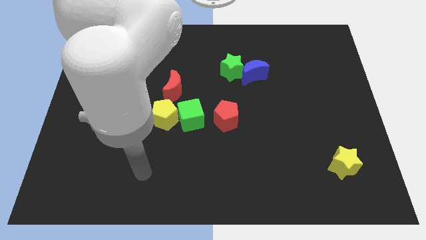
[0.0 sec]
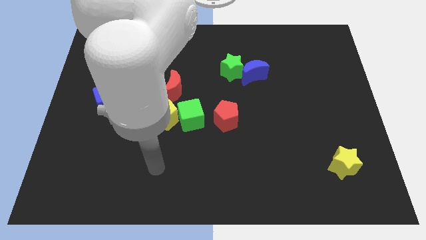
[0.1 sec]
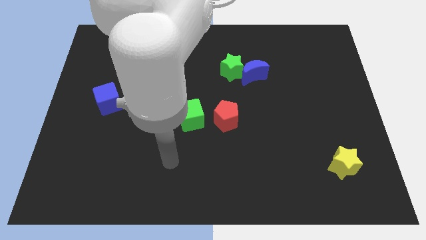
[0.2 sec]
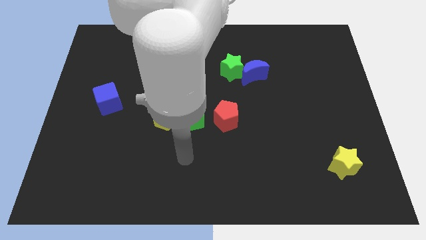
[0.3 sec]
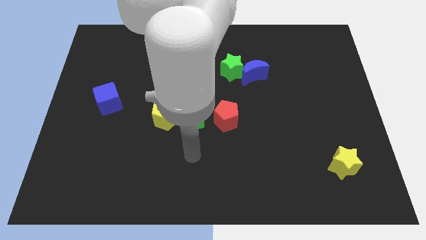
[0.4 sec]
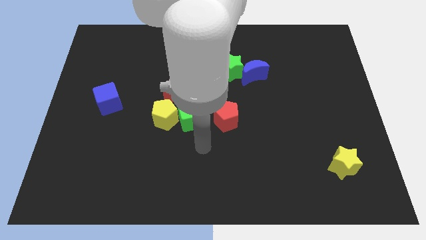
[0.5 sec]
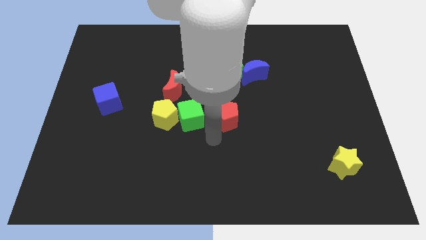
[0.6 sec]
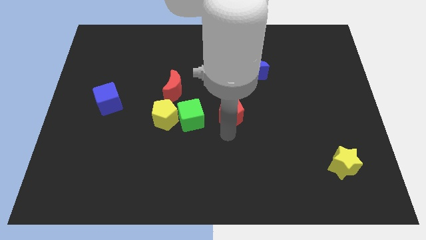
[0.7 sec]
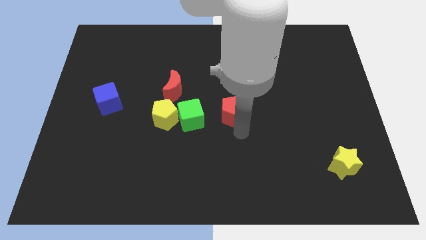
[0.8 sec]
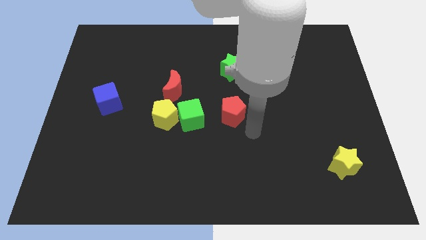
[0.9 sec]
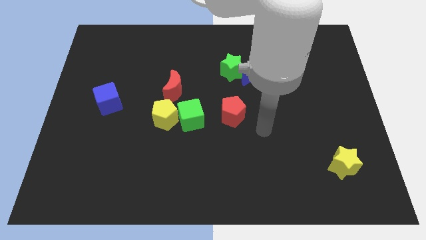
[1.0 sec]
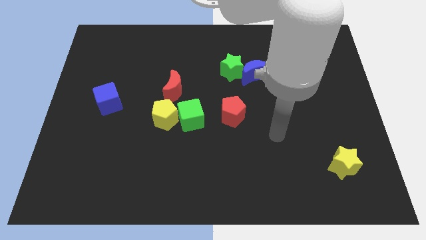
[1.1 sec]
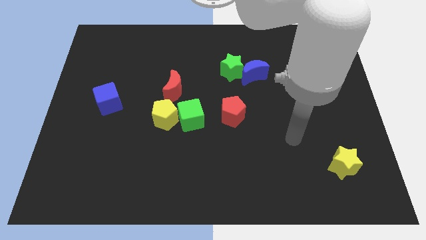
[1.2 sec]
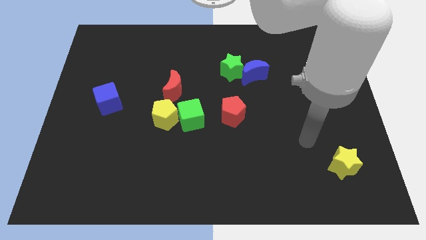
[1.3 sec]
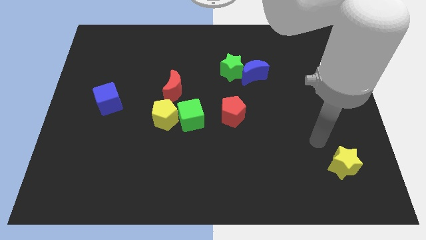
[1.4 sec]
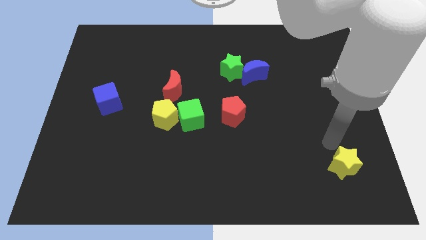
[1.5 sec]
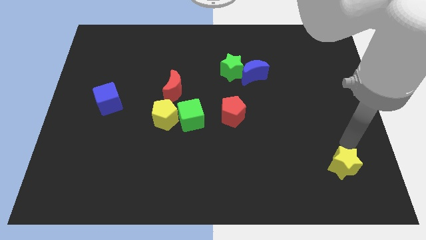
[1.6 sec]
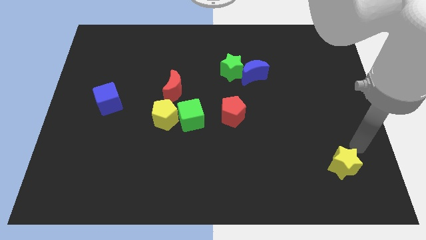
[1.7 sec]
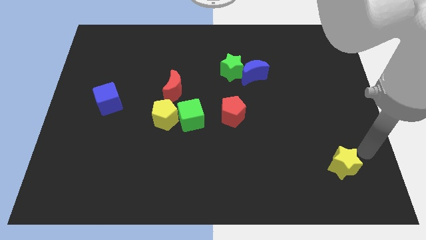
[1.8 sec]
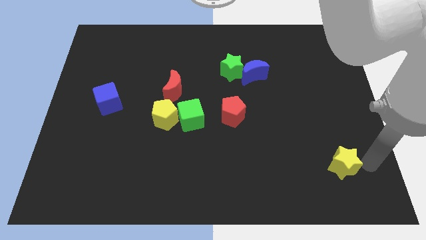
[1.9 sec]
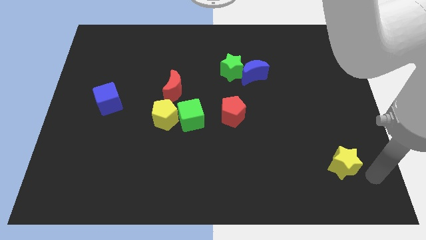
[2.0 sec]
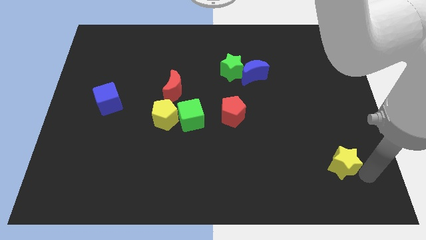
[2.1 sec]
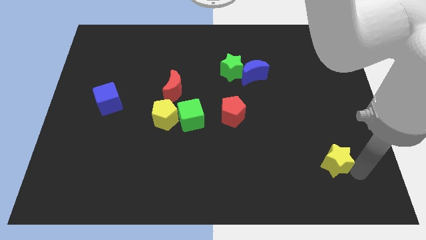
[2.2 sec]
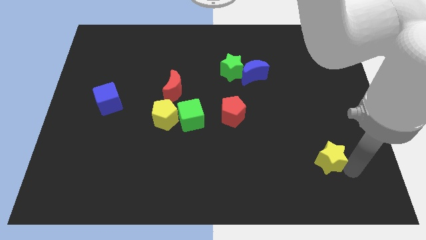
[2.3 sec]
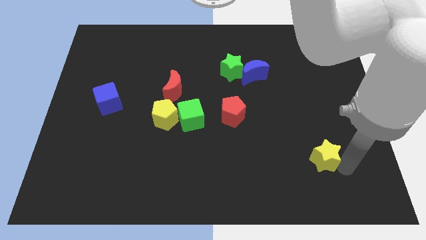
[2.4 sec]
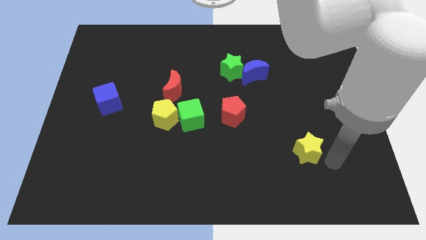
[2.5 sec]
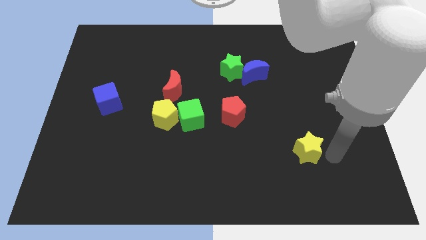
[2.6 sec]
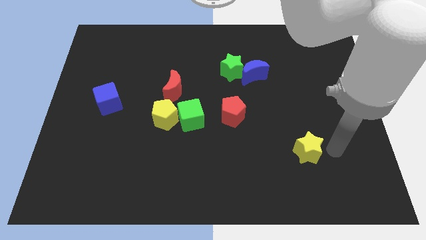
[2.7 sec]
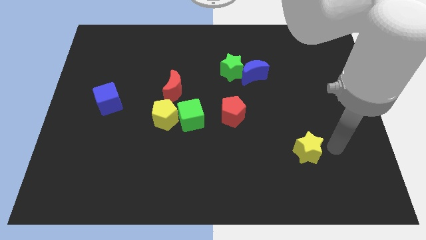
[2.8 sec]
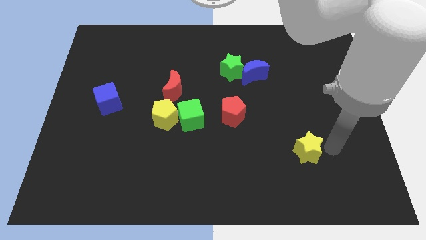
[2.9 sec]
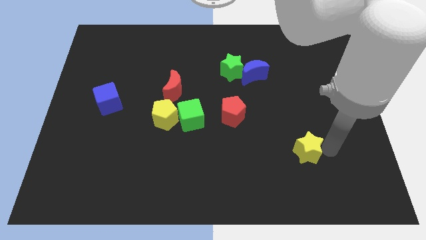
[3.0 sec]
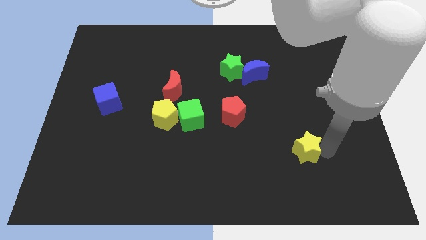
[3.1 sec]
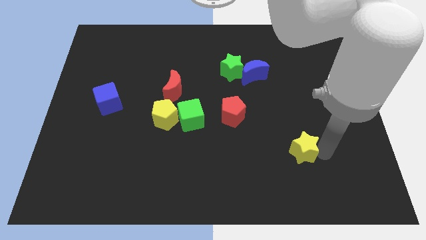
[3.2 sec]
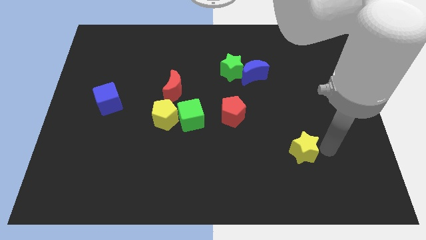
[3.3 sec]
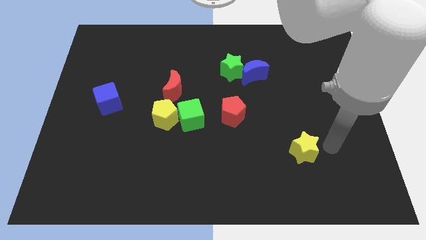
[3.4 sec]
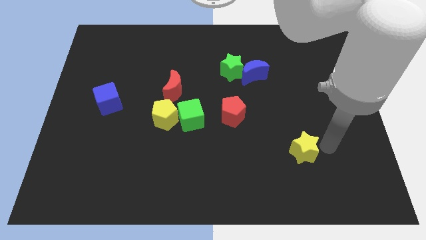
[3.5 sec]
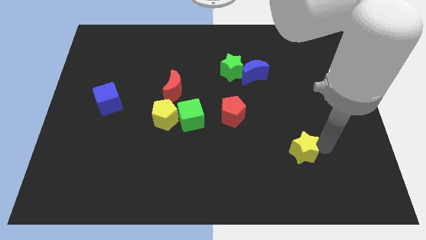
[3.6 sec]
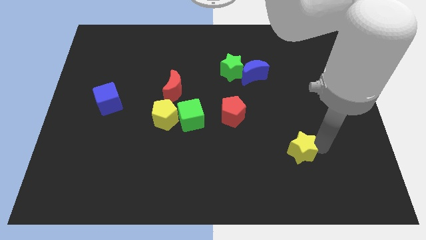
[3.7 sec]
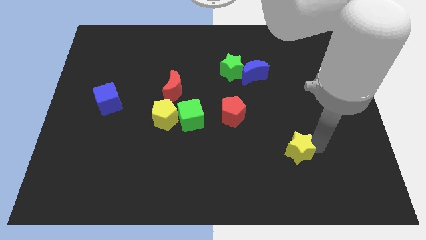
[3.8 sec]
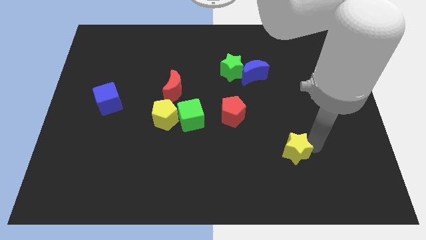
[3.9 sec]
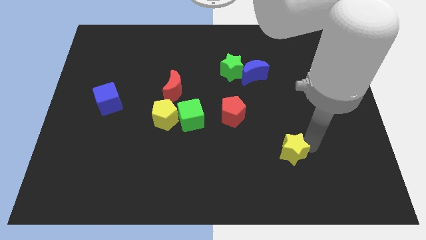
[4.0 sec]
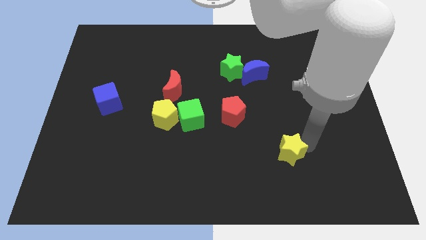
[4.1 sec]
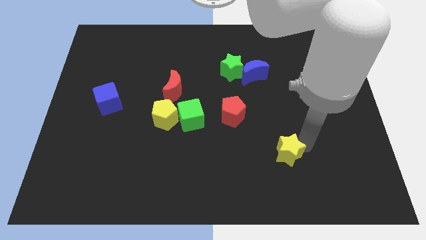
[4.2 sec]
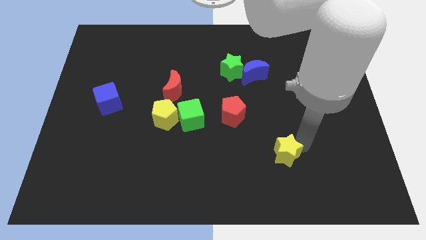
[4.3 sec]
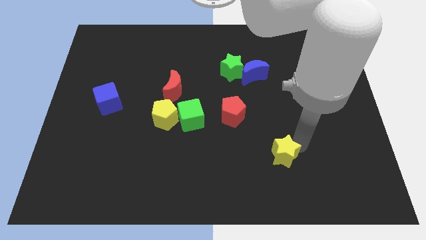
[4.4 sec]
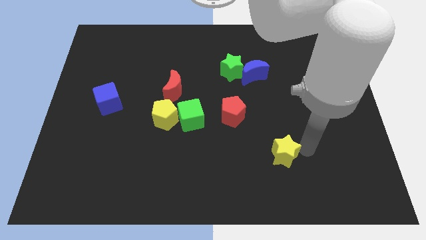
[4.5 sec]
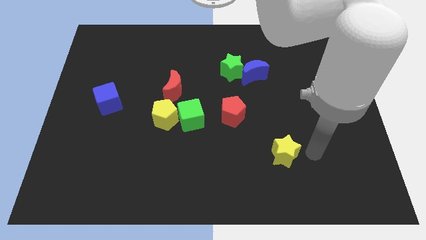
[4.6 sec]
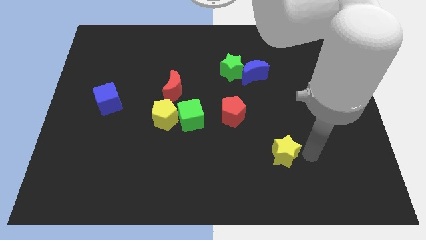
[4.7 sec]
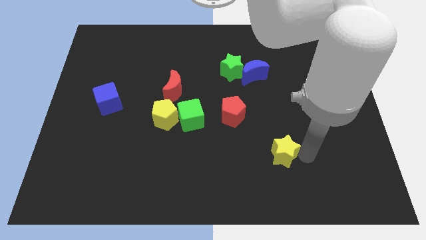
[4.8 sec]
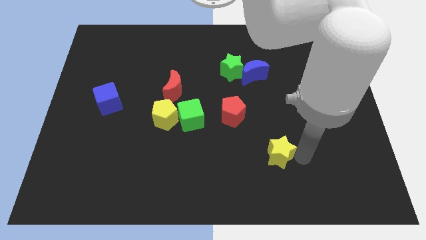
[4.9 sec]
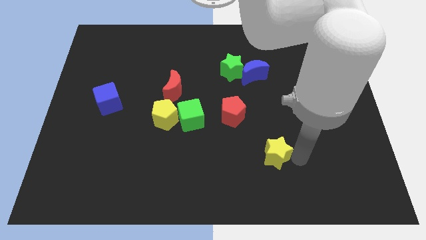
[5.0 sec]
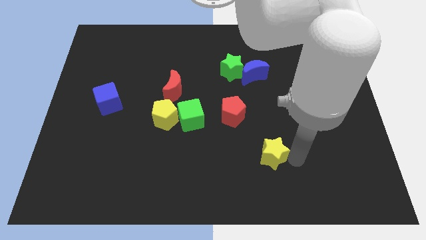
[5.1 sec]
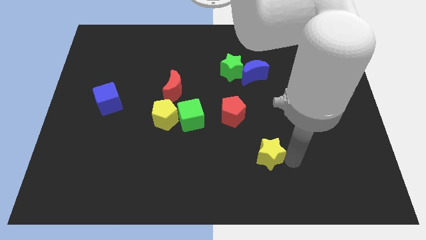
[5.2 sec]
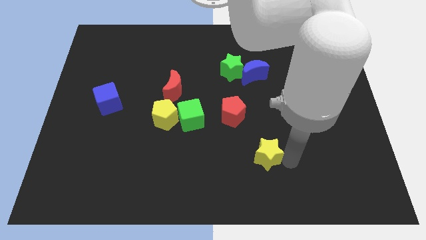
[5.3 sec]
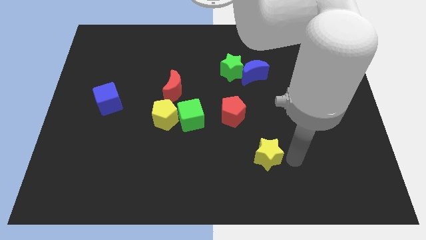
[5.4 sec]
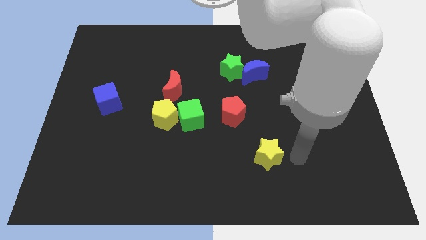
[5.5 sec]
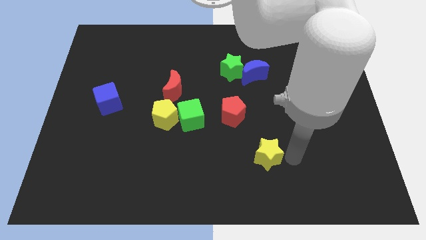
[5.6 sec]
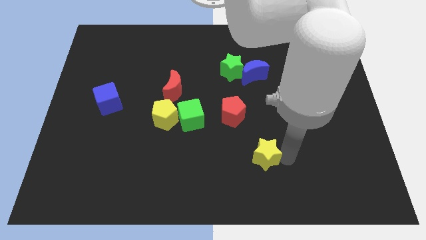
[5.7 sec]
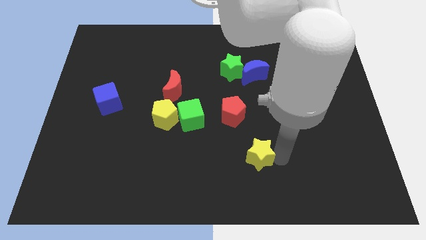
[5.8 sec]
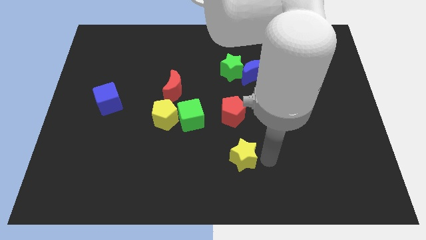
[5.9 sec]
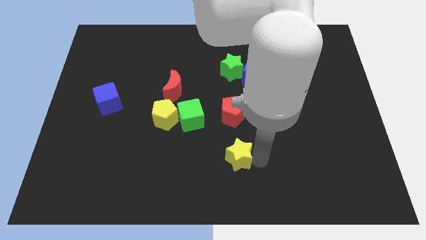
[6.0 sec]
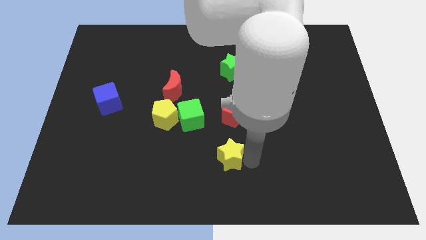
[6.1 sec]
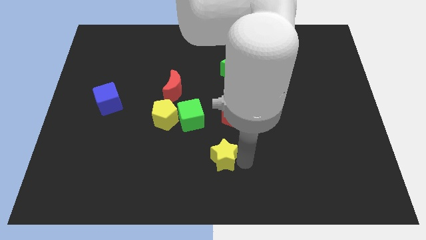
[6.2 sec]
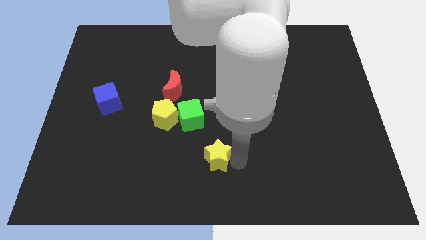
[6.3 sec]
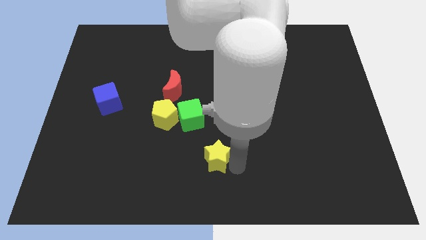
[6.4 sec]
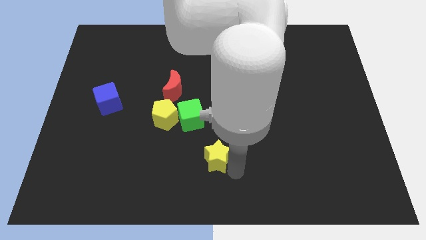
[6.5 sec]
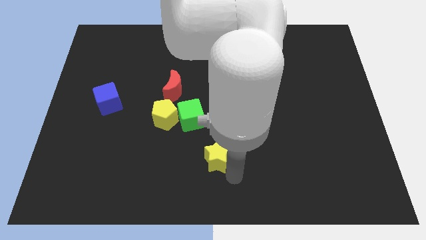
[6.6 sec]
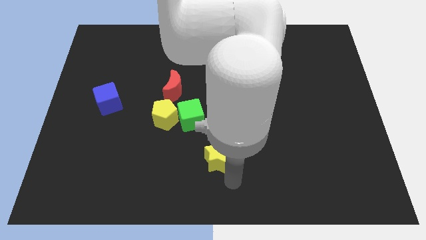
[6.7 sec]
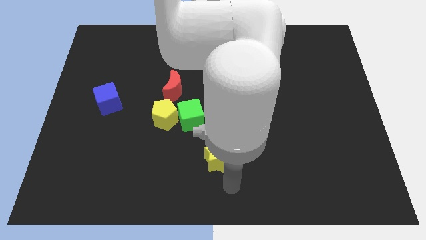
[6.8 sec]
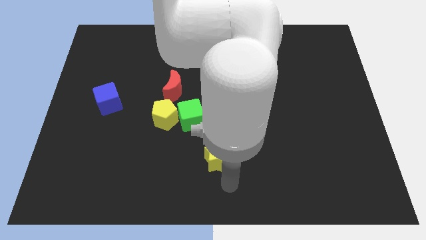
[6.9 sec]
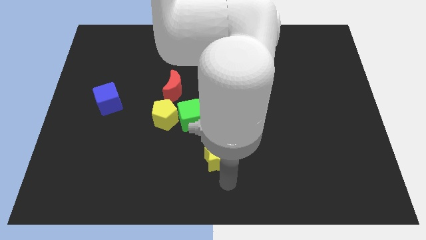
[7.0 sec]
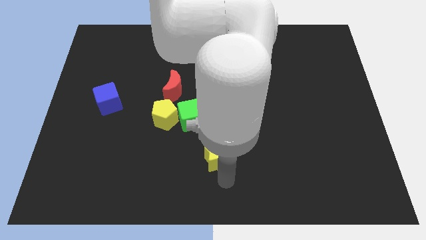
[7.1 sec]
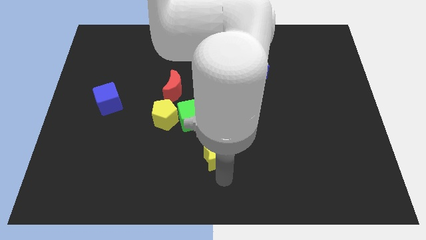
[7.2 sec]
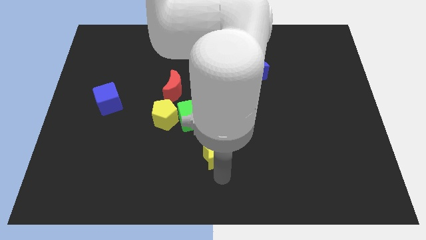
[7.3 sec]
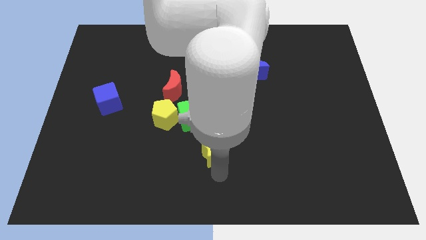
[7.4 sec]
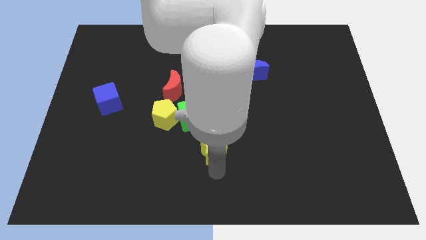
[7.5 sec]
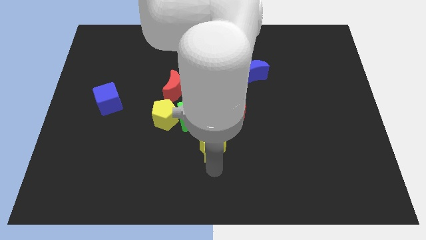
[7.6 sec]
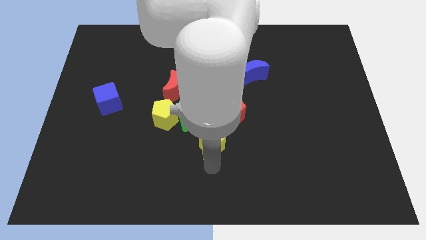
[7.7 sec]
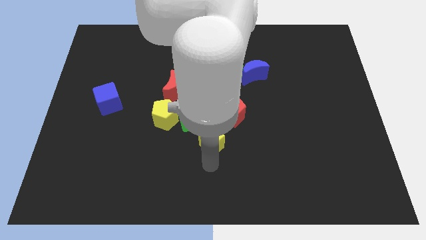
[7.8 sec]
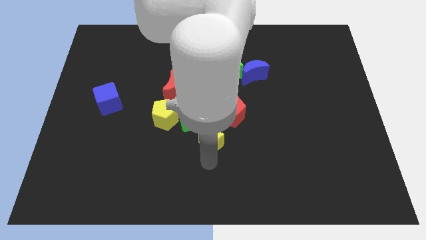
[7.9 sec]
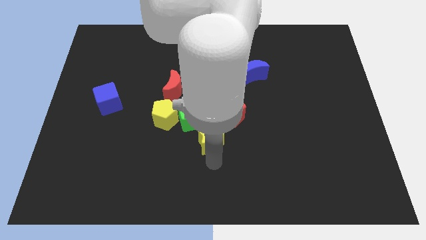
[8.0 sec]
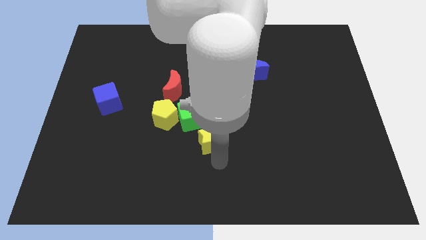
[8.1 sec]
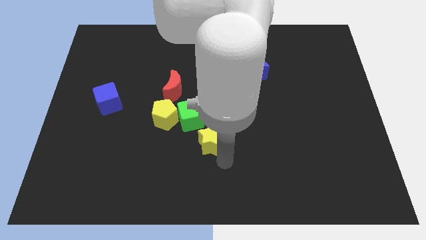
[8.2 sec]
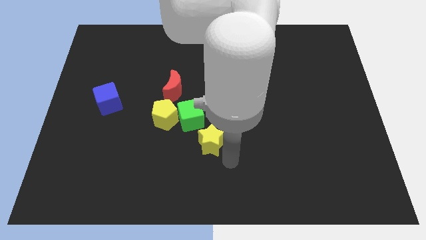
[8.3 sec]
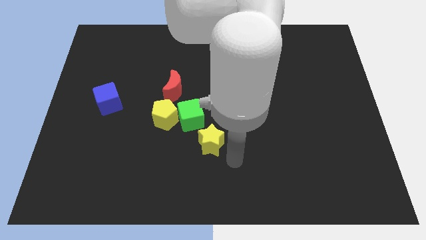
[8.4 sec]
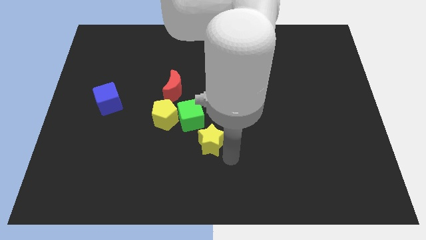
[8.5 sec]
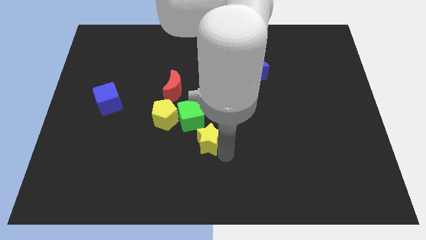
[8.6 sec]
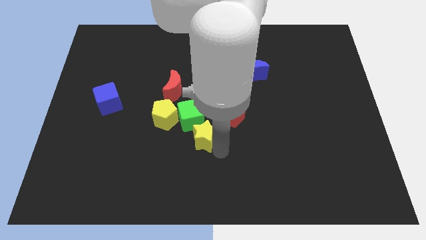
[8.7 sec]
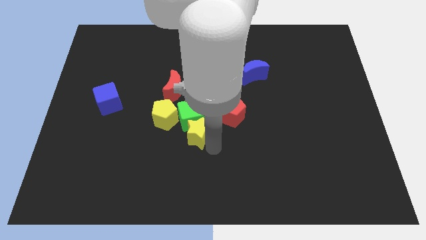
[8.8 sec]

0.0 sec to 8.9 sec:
put the yellow star close to the green cube
